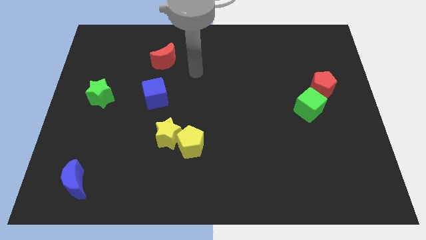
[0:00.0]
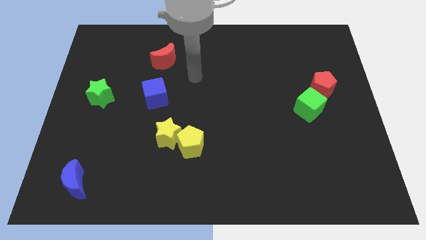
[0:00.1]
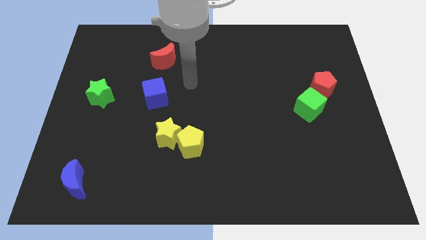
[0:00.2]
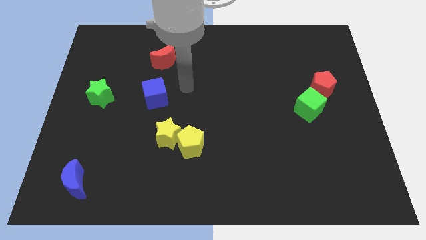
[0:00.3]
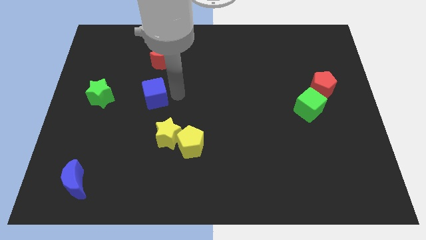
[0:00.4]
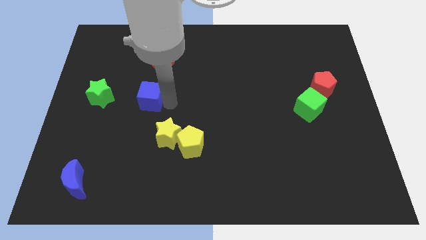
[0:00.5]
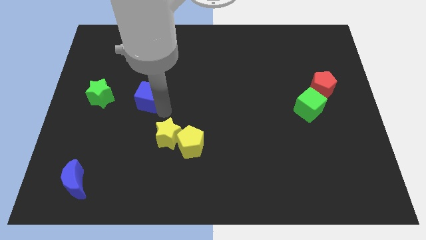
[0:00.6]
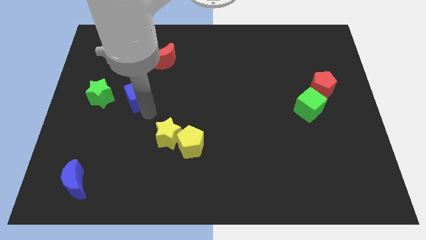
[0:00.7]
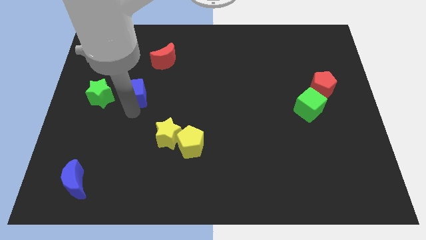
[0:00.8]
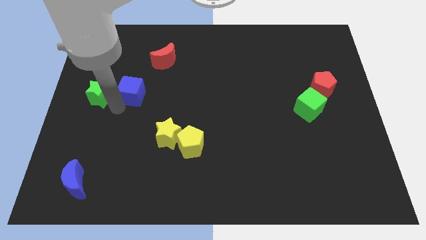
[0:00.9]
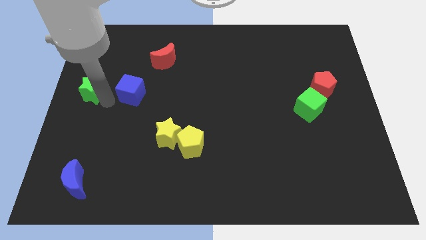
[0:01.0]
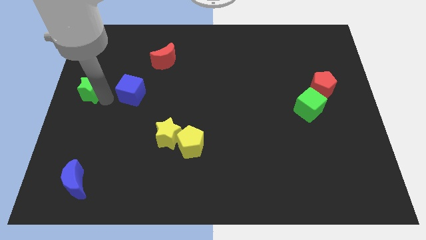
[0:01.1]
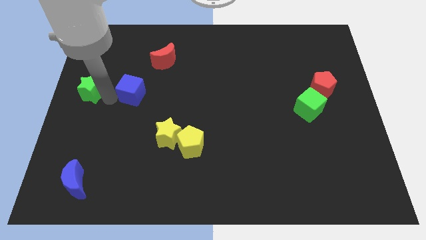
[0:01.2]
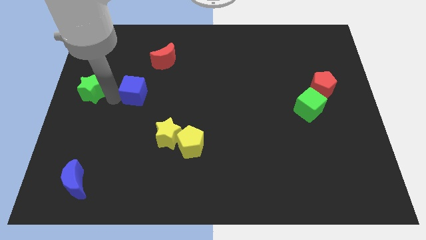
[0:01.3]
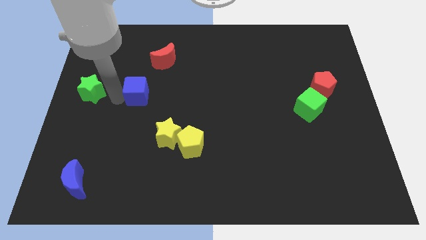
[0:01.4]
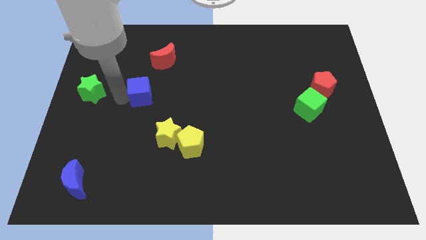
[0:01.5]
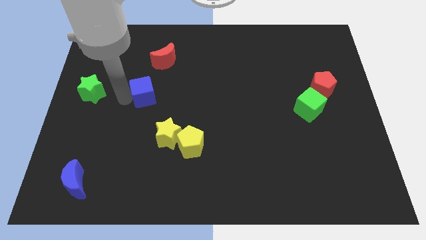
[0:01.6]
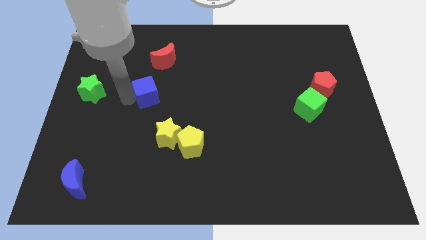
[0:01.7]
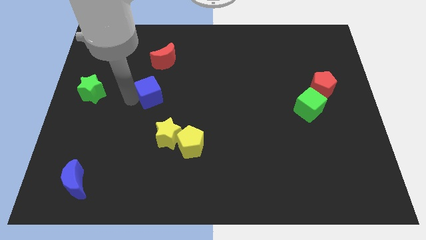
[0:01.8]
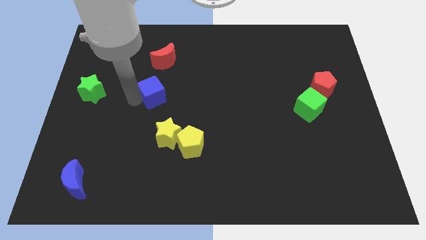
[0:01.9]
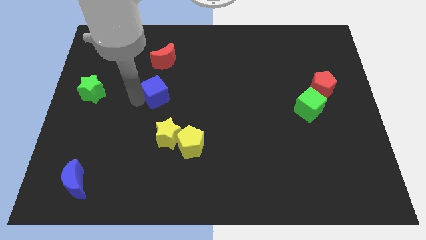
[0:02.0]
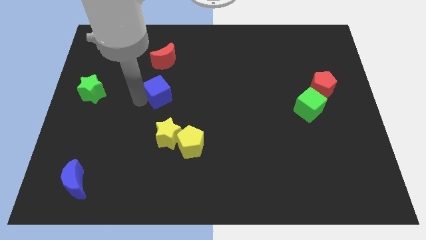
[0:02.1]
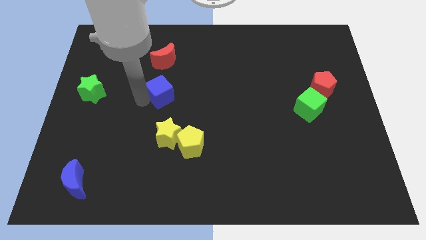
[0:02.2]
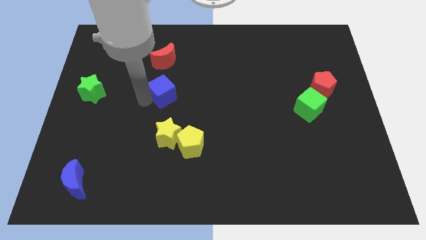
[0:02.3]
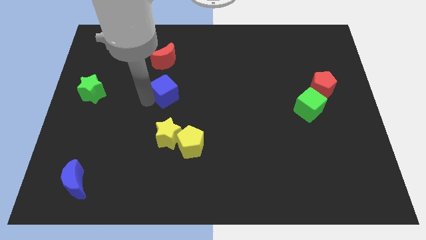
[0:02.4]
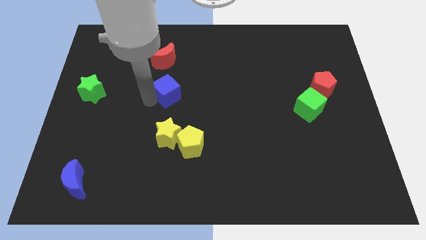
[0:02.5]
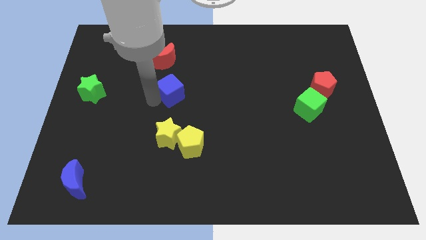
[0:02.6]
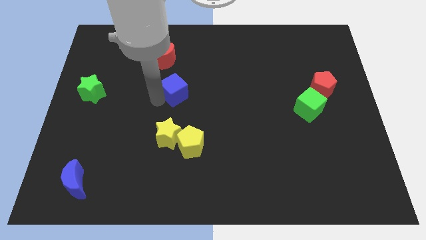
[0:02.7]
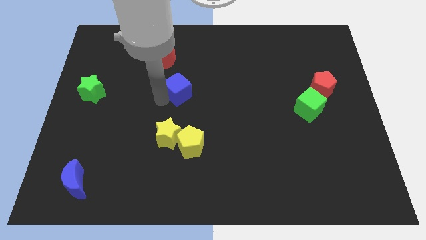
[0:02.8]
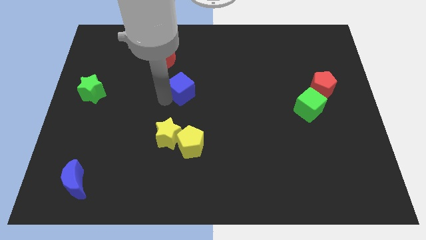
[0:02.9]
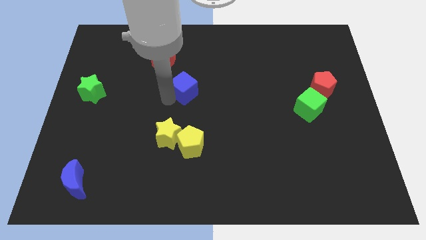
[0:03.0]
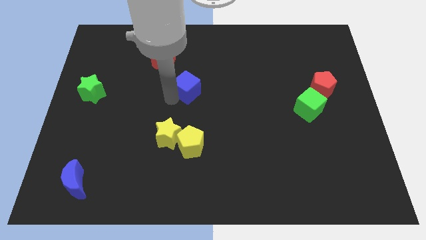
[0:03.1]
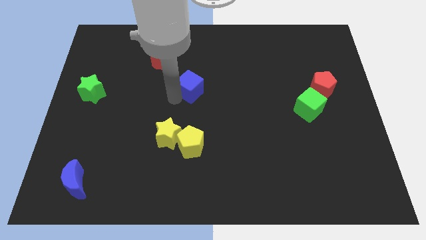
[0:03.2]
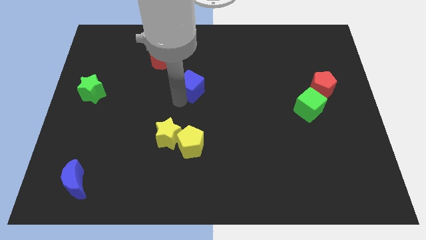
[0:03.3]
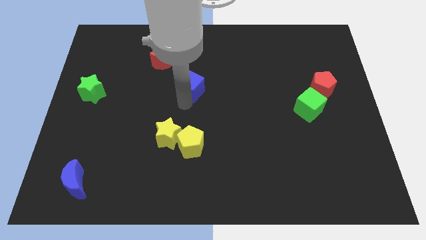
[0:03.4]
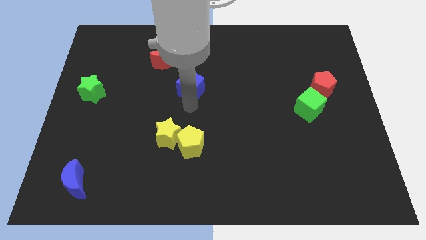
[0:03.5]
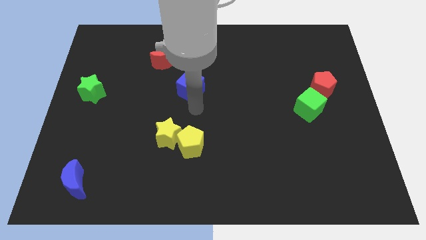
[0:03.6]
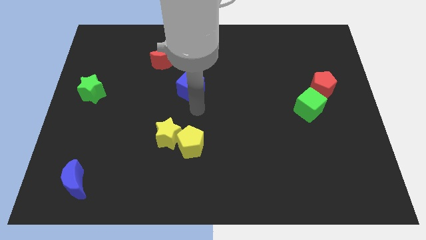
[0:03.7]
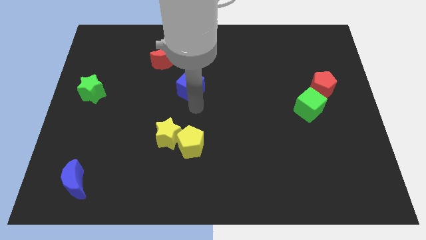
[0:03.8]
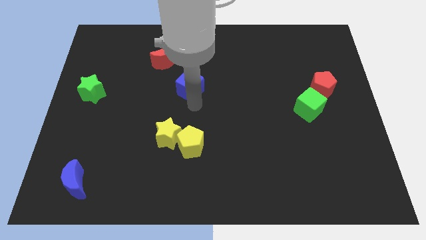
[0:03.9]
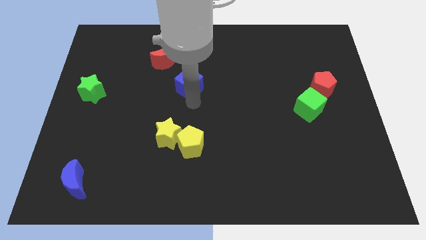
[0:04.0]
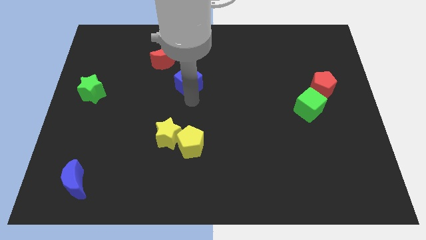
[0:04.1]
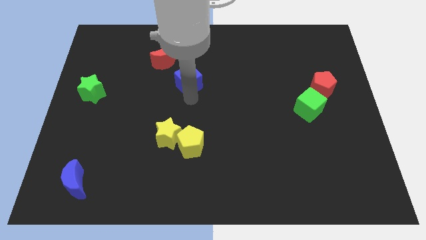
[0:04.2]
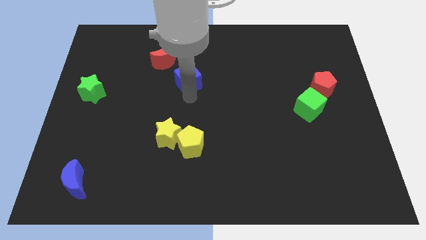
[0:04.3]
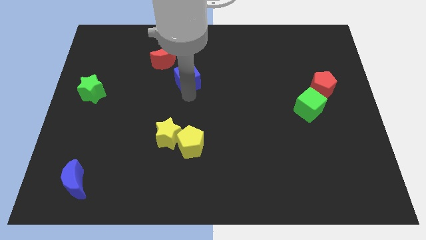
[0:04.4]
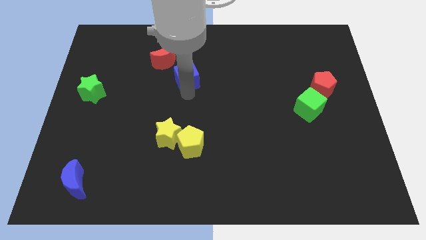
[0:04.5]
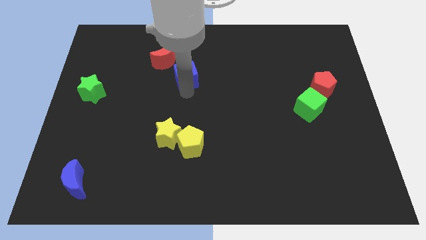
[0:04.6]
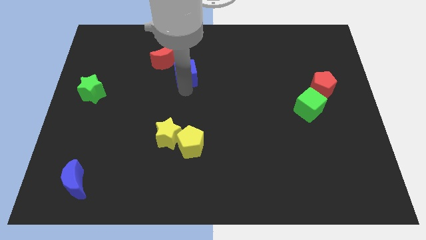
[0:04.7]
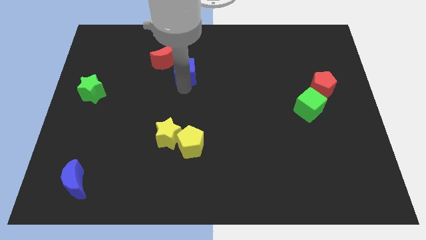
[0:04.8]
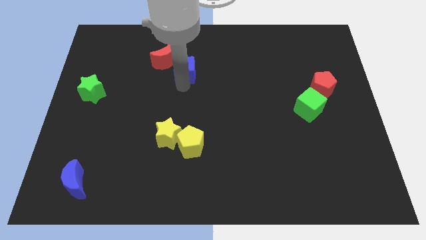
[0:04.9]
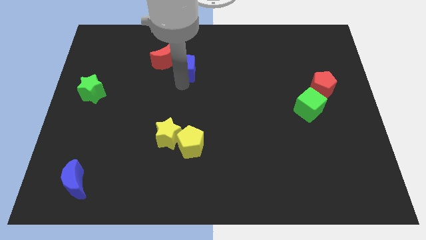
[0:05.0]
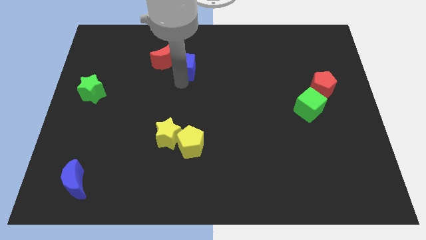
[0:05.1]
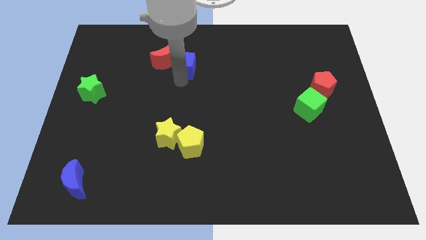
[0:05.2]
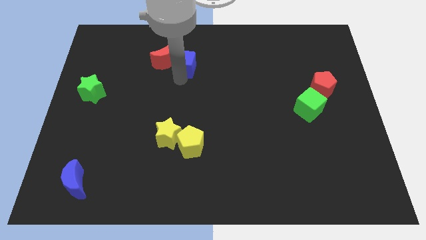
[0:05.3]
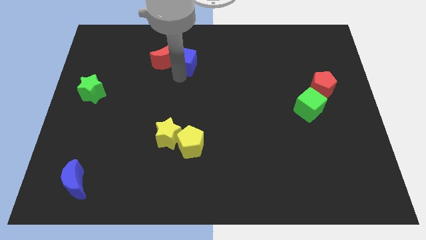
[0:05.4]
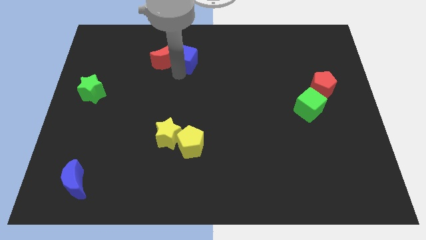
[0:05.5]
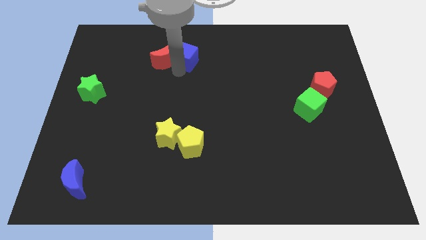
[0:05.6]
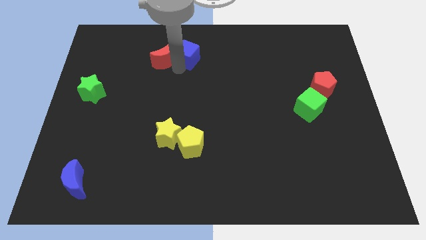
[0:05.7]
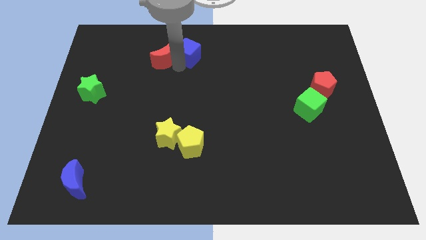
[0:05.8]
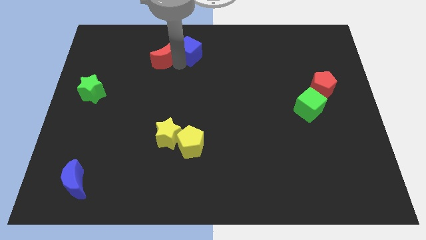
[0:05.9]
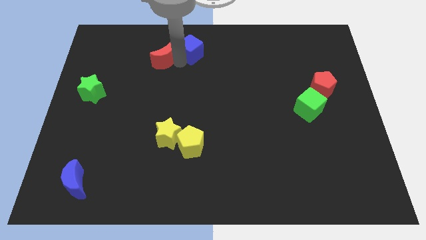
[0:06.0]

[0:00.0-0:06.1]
put the blue cube to the towards your base

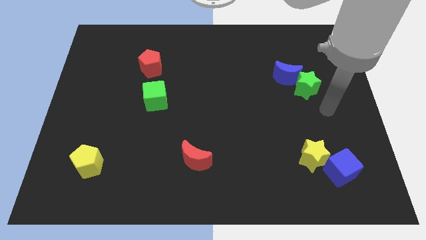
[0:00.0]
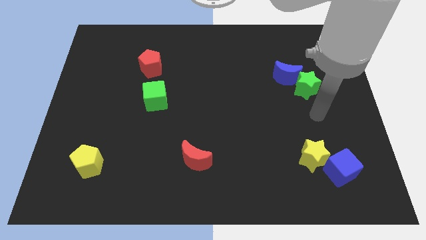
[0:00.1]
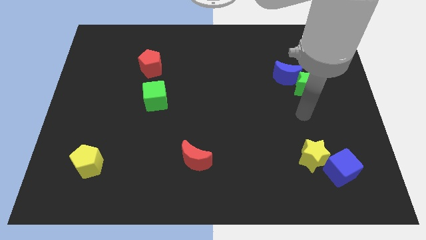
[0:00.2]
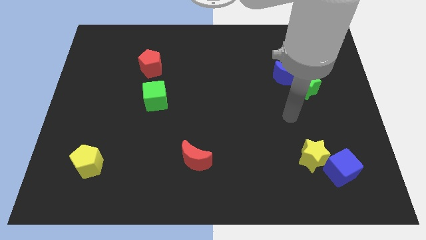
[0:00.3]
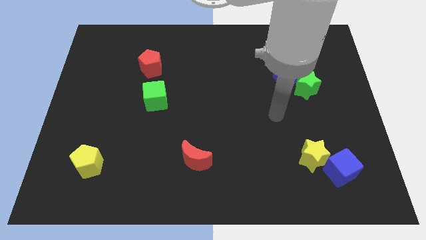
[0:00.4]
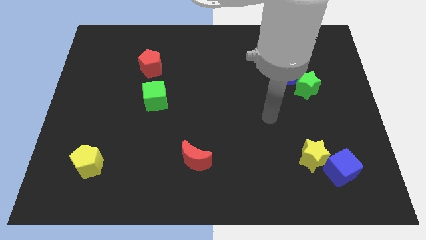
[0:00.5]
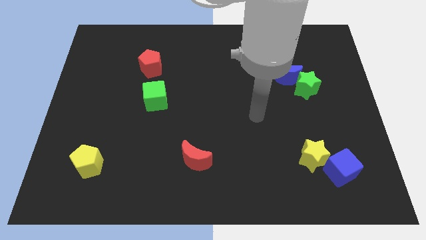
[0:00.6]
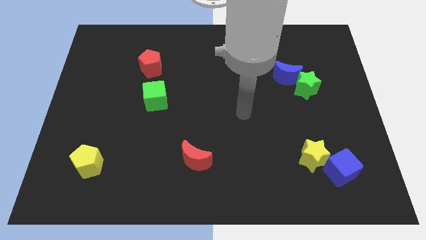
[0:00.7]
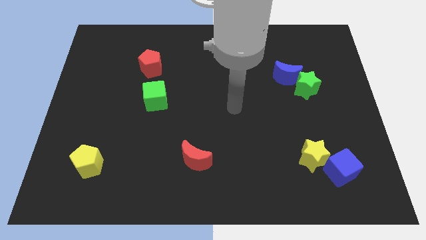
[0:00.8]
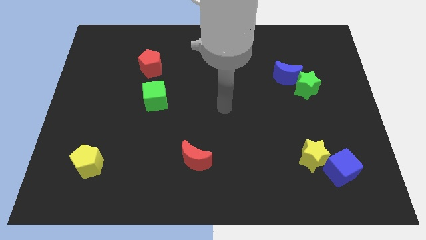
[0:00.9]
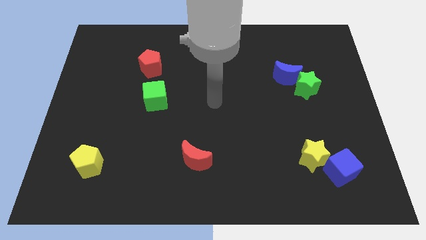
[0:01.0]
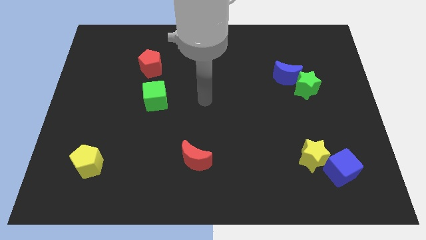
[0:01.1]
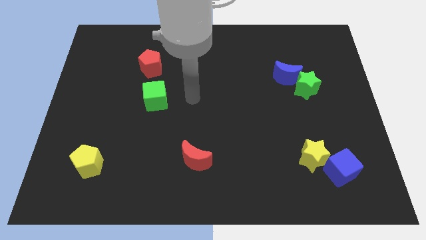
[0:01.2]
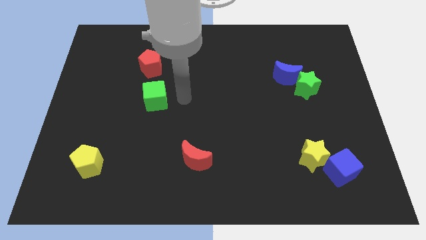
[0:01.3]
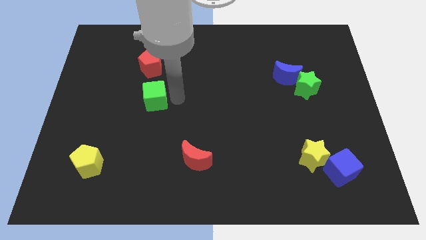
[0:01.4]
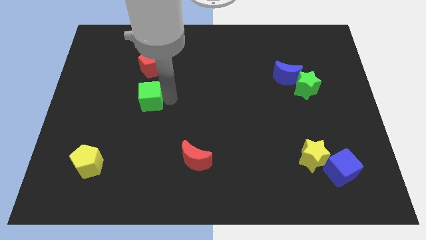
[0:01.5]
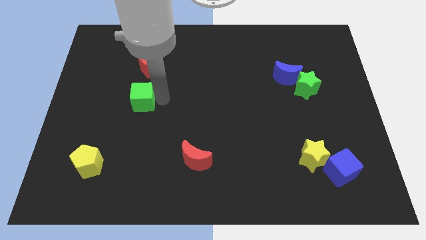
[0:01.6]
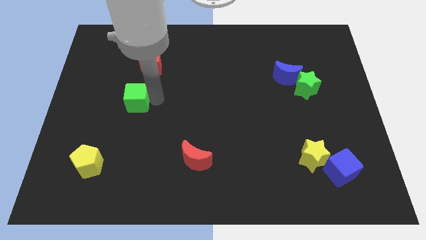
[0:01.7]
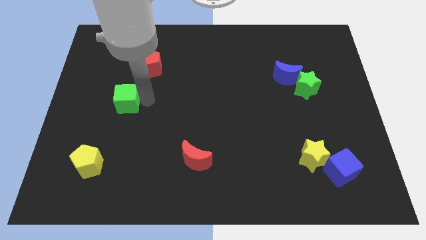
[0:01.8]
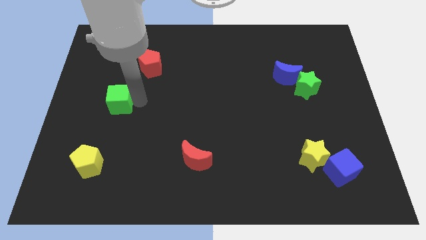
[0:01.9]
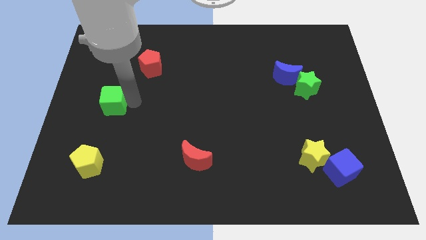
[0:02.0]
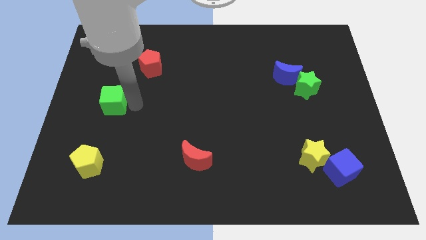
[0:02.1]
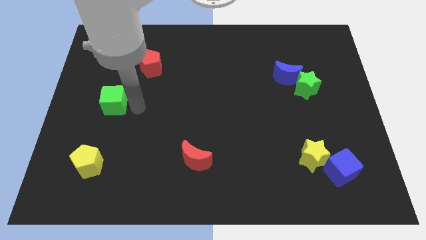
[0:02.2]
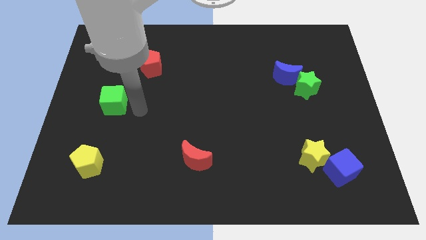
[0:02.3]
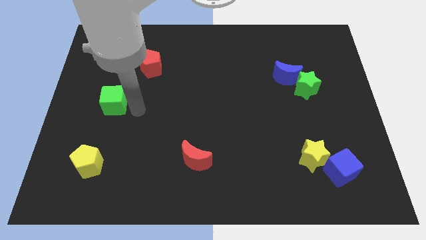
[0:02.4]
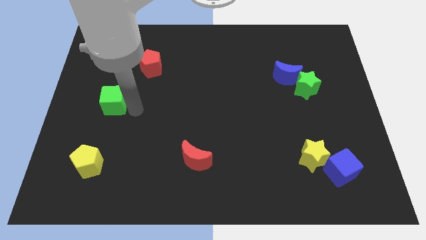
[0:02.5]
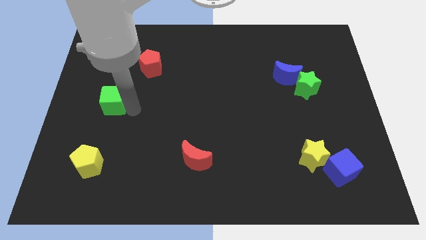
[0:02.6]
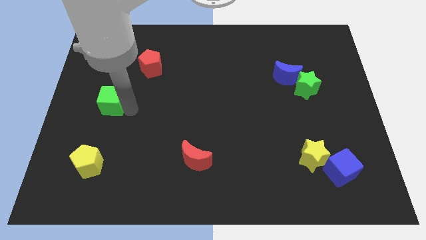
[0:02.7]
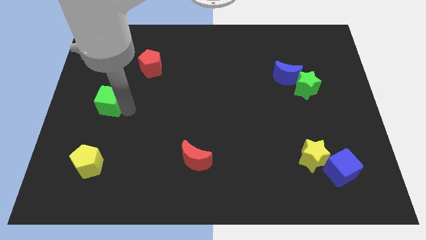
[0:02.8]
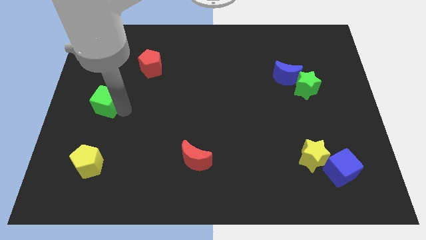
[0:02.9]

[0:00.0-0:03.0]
push the green cube to the center left
